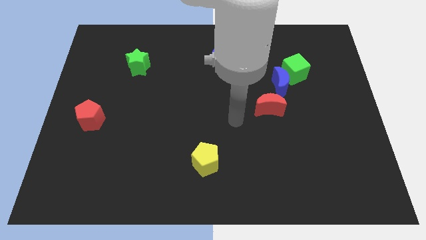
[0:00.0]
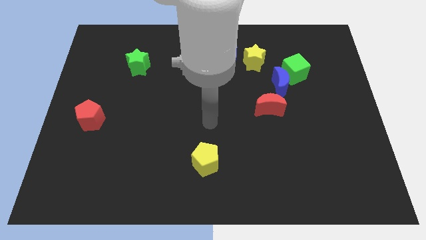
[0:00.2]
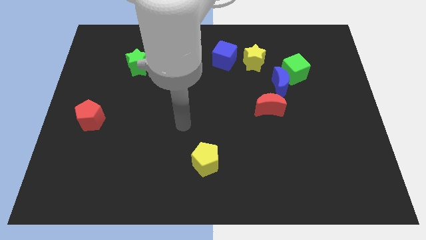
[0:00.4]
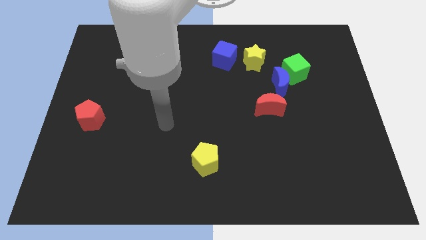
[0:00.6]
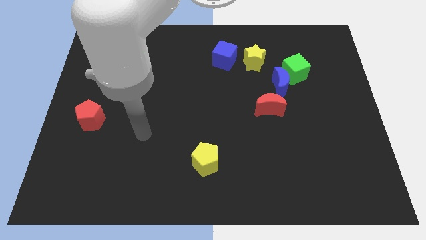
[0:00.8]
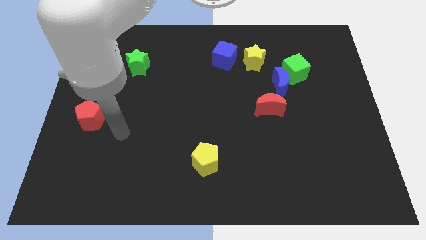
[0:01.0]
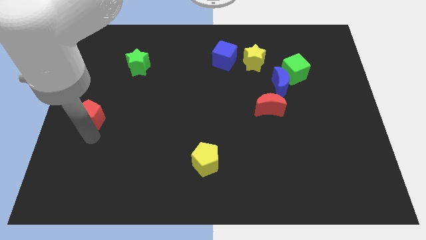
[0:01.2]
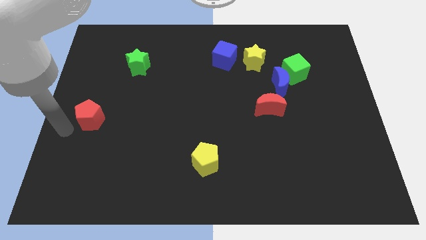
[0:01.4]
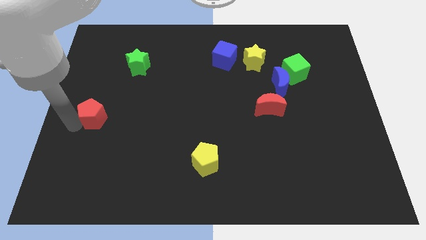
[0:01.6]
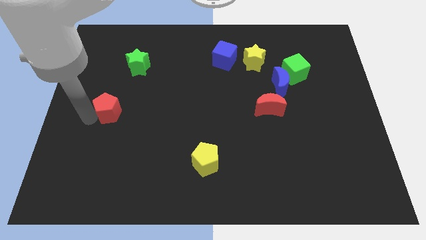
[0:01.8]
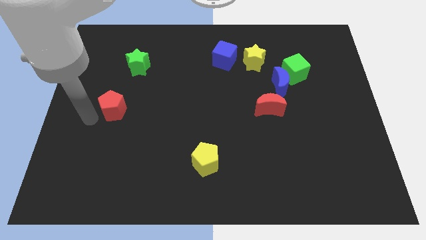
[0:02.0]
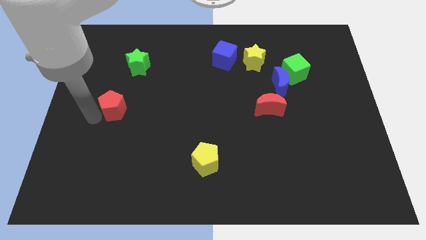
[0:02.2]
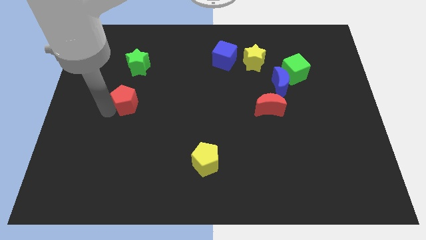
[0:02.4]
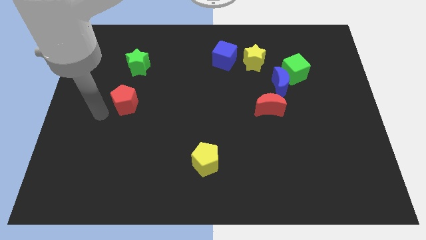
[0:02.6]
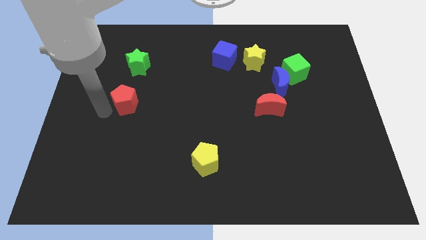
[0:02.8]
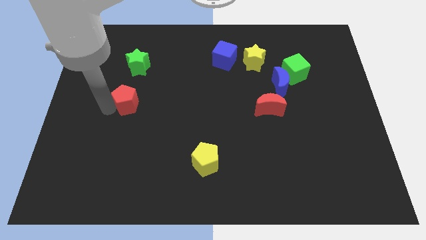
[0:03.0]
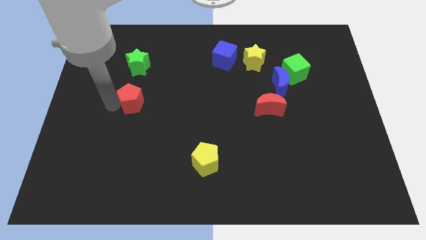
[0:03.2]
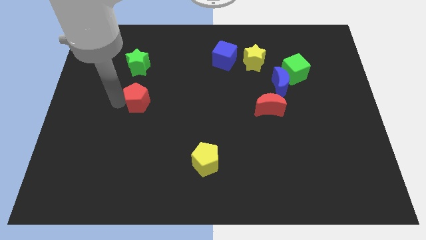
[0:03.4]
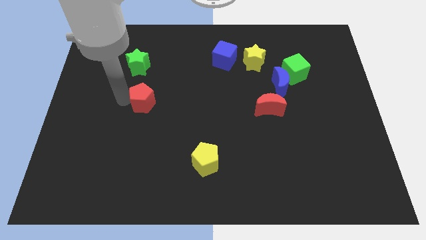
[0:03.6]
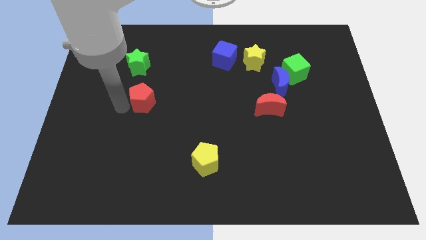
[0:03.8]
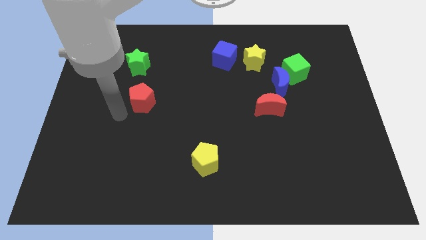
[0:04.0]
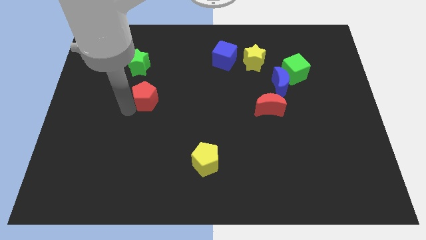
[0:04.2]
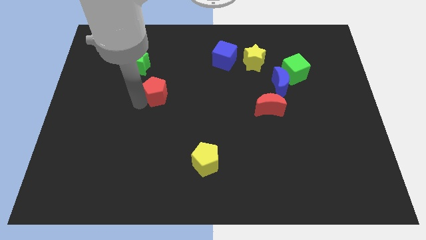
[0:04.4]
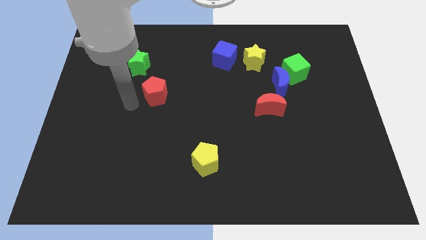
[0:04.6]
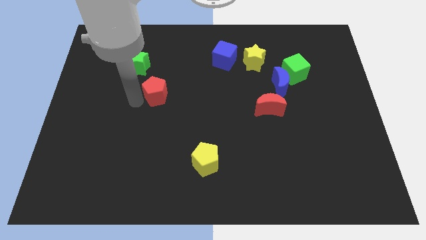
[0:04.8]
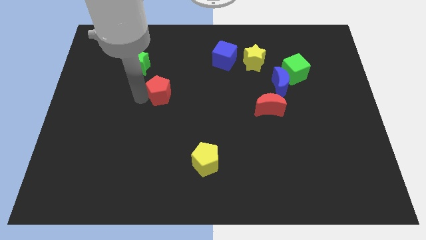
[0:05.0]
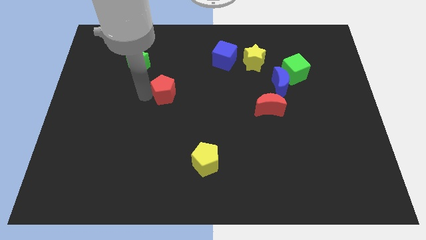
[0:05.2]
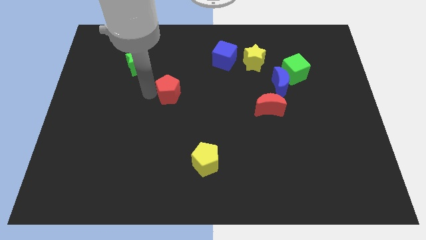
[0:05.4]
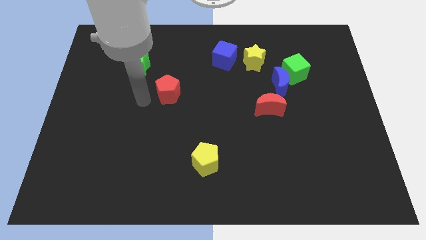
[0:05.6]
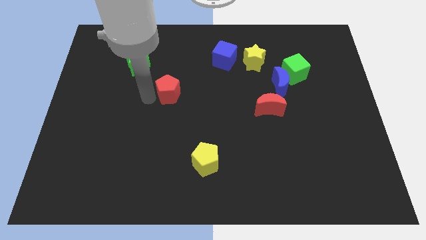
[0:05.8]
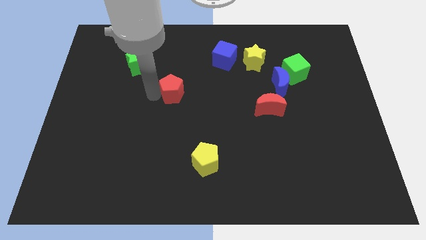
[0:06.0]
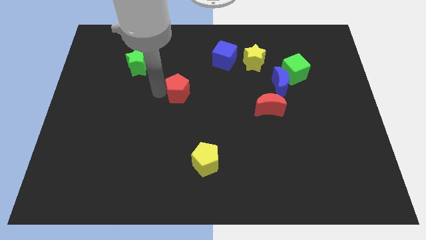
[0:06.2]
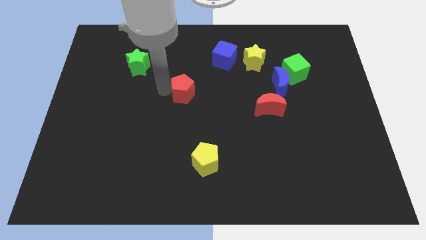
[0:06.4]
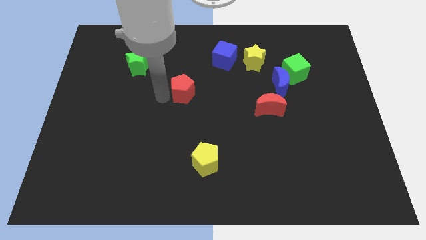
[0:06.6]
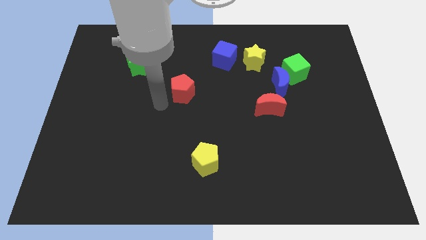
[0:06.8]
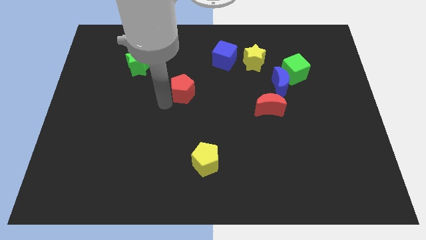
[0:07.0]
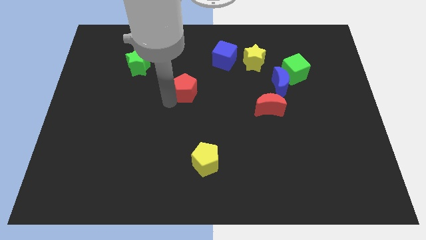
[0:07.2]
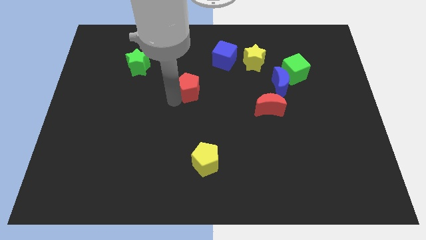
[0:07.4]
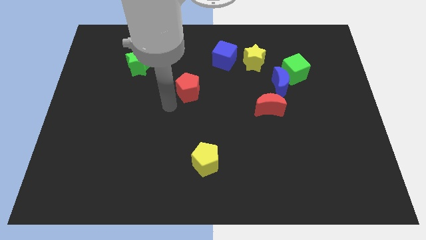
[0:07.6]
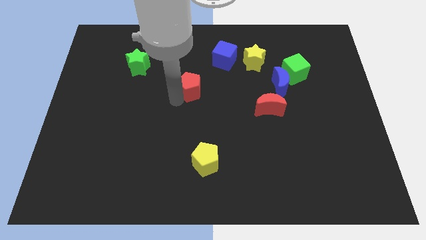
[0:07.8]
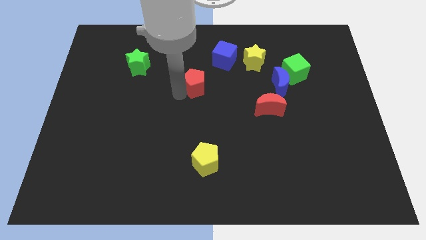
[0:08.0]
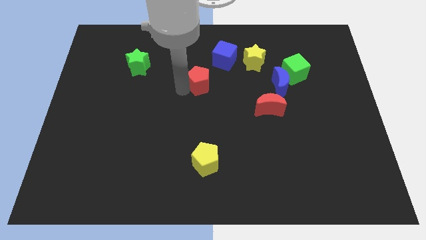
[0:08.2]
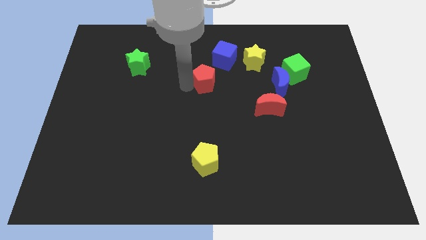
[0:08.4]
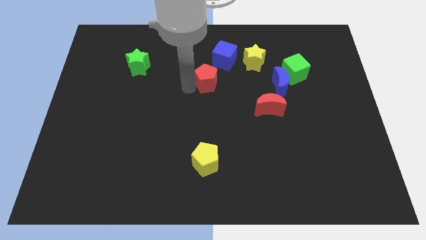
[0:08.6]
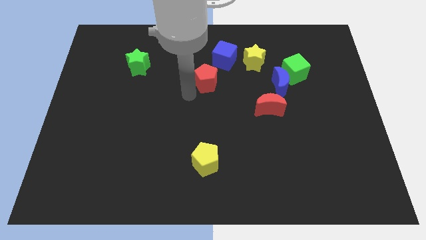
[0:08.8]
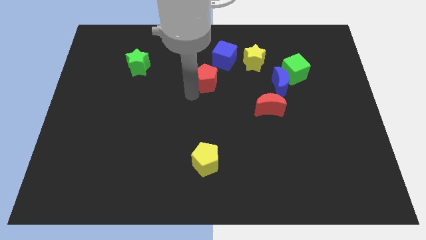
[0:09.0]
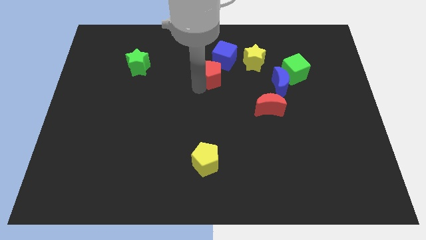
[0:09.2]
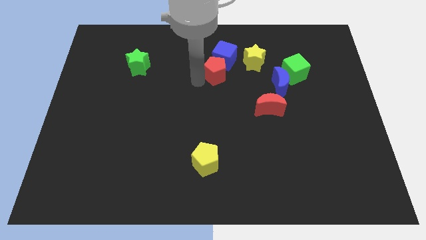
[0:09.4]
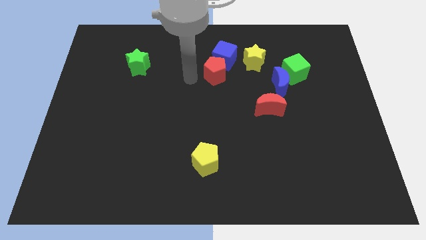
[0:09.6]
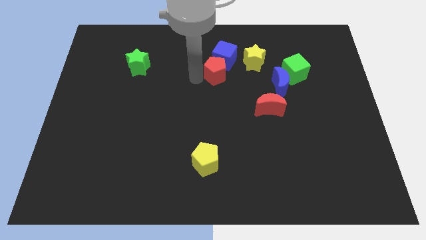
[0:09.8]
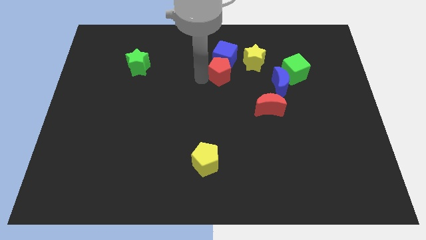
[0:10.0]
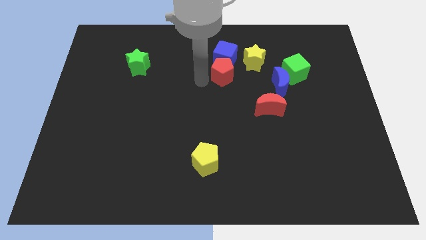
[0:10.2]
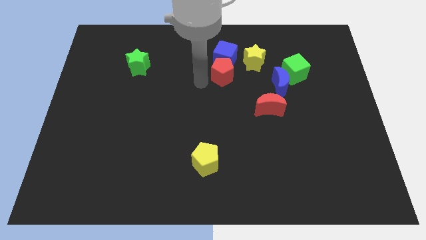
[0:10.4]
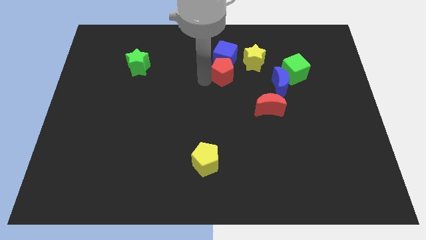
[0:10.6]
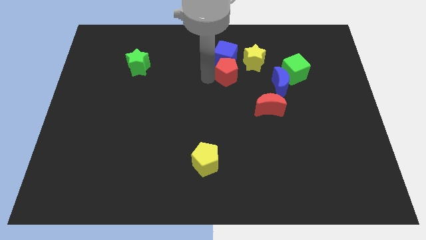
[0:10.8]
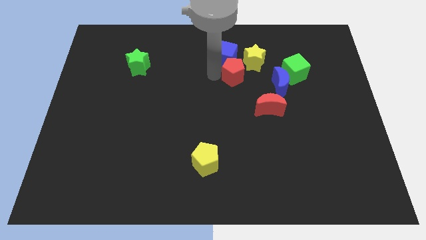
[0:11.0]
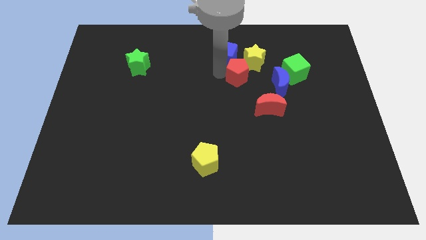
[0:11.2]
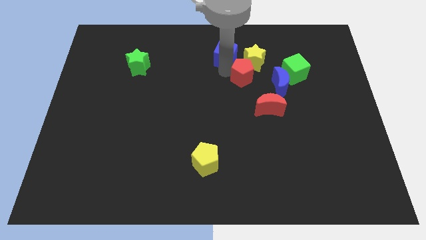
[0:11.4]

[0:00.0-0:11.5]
push the red pentagon towards the yellow star

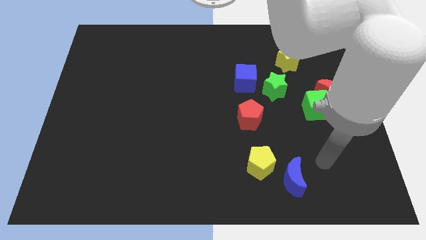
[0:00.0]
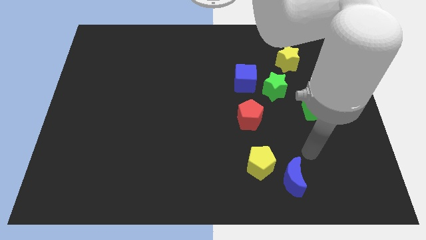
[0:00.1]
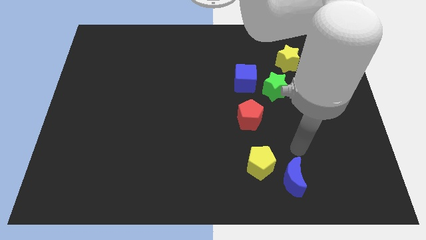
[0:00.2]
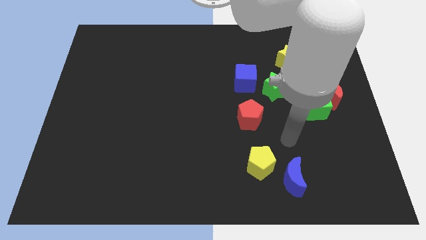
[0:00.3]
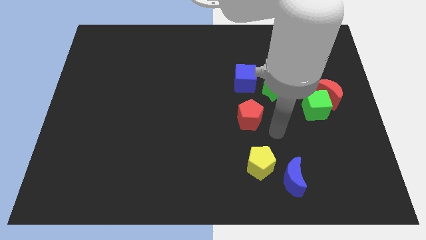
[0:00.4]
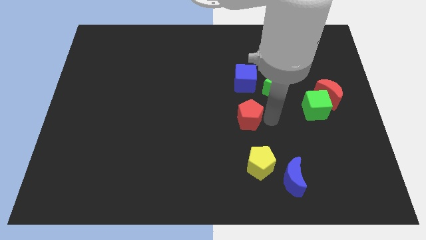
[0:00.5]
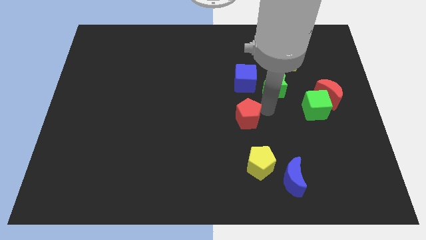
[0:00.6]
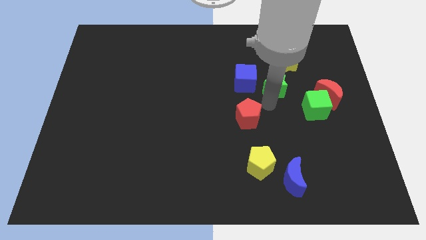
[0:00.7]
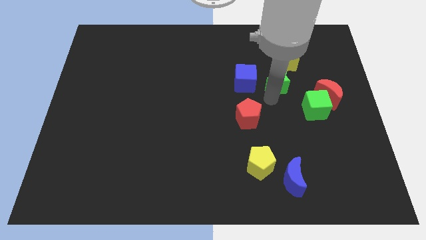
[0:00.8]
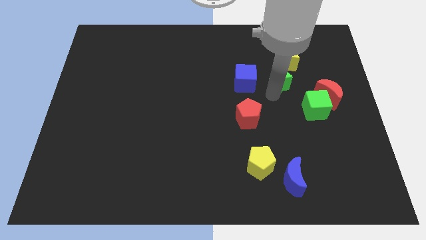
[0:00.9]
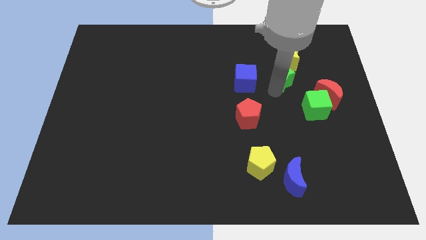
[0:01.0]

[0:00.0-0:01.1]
push the green star close to the yellow star

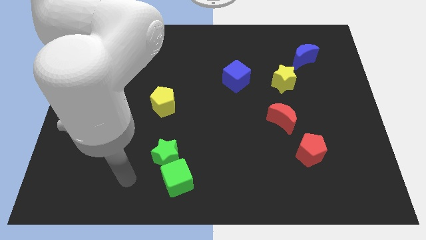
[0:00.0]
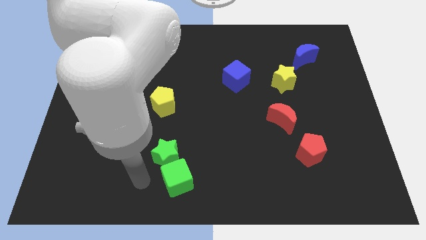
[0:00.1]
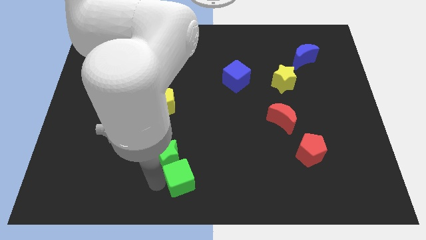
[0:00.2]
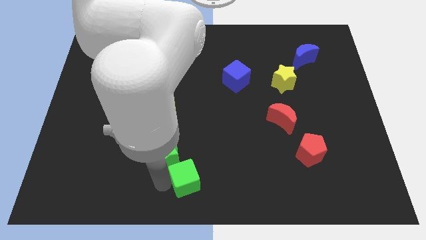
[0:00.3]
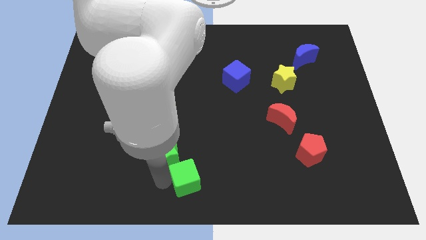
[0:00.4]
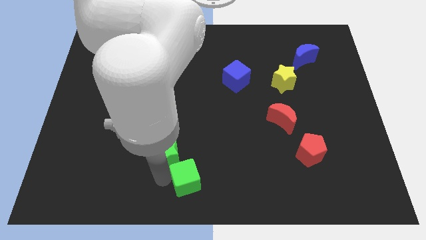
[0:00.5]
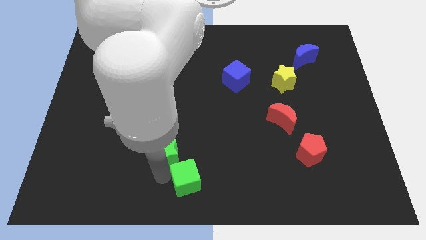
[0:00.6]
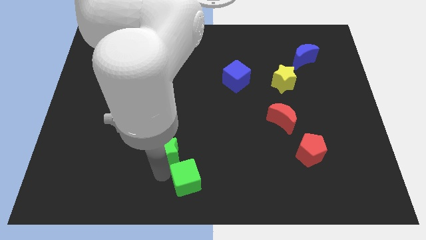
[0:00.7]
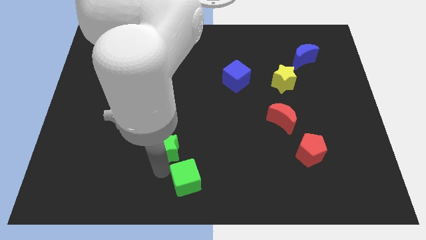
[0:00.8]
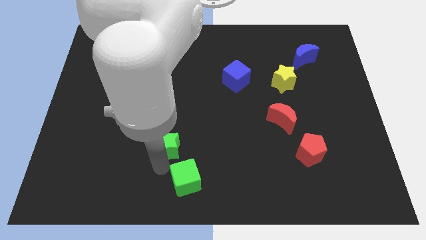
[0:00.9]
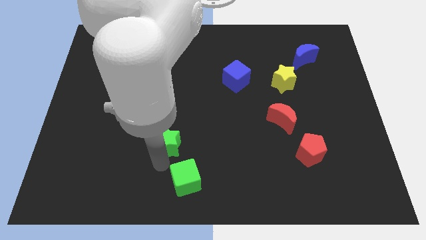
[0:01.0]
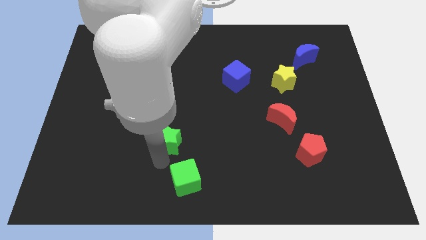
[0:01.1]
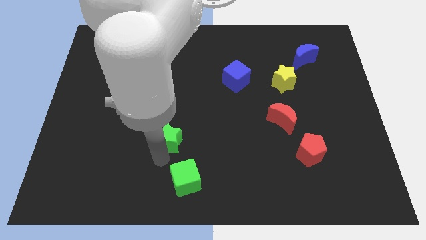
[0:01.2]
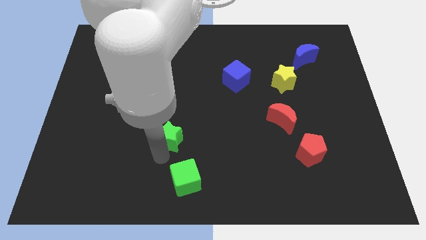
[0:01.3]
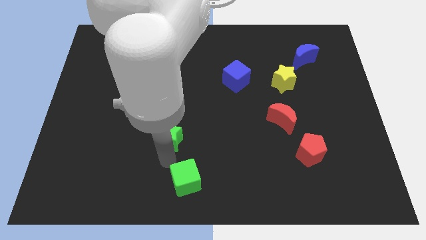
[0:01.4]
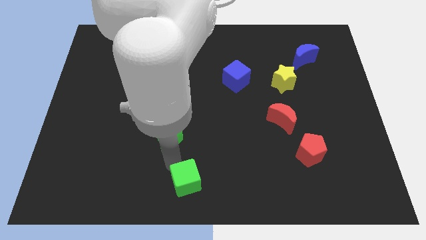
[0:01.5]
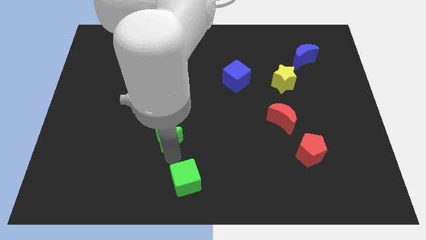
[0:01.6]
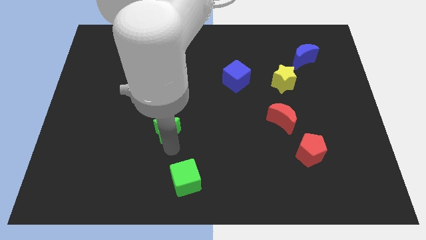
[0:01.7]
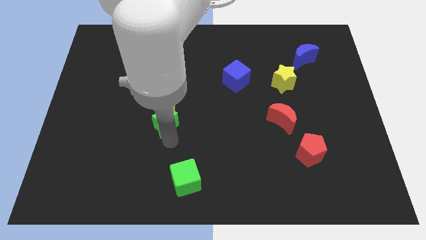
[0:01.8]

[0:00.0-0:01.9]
move the green star next to the yellow pentagon
